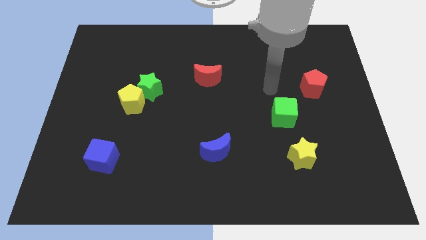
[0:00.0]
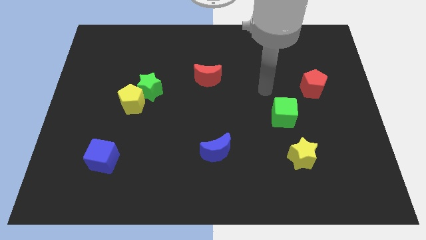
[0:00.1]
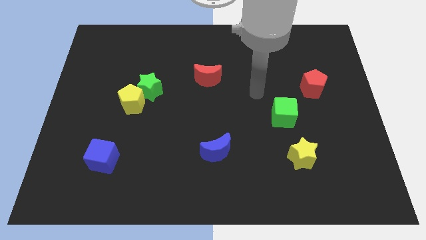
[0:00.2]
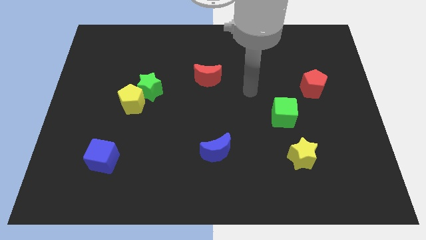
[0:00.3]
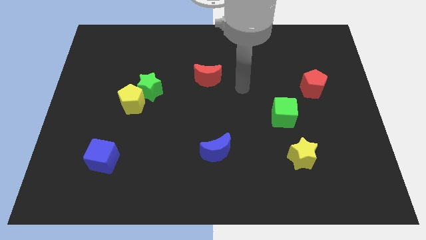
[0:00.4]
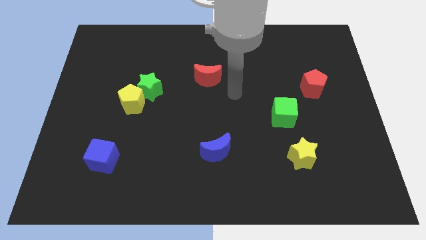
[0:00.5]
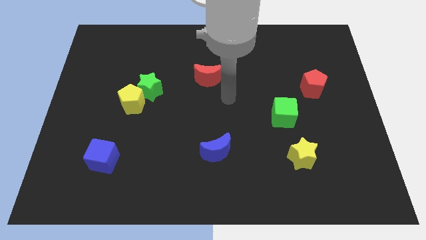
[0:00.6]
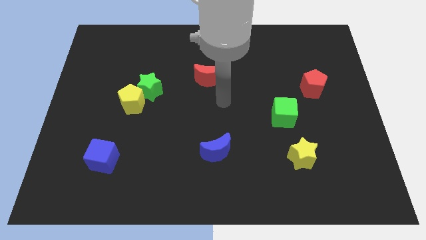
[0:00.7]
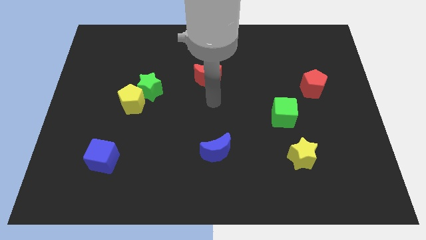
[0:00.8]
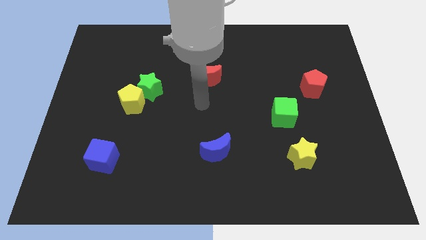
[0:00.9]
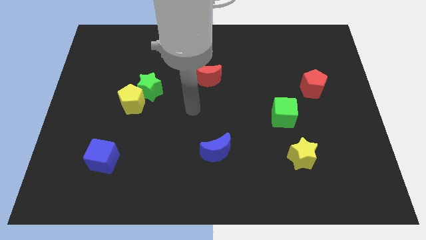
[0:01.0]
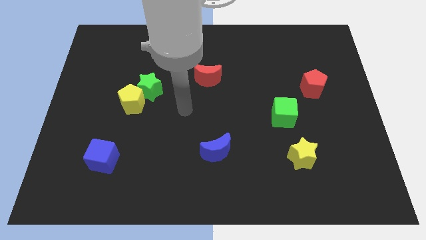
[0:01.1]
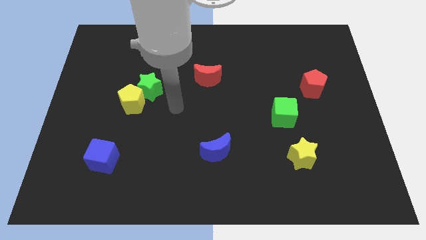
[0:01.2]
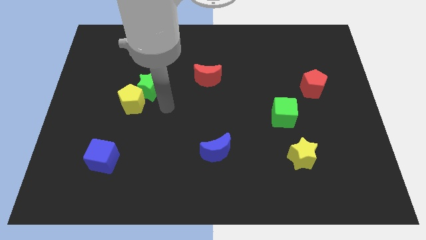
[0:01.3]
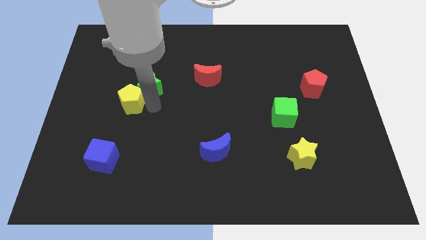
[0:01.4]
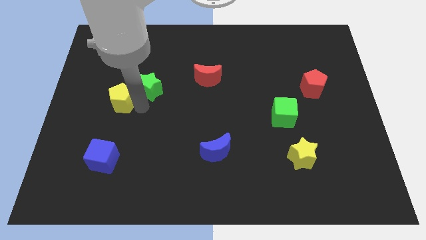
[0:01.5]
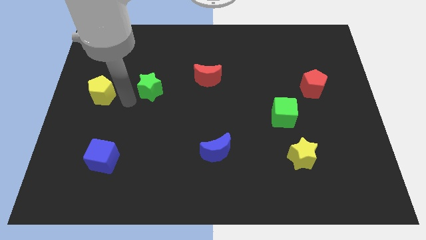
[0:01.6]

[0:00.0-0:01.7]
pull the green star apart from the yellow pentagon

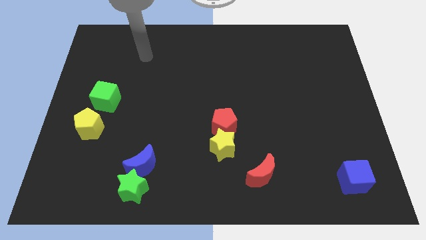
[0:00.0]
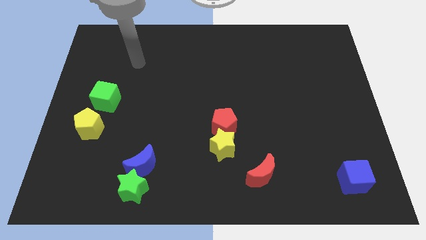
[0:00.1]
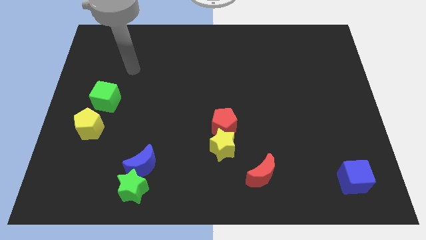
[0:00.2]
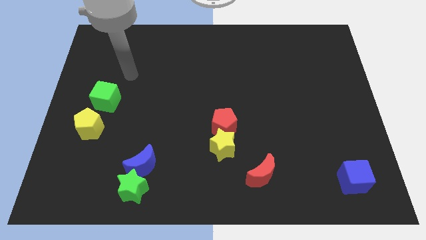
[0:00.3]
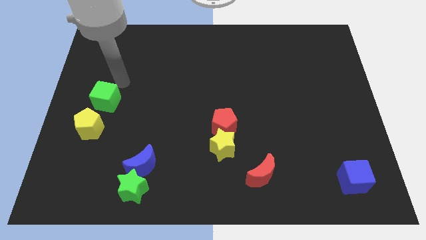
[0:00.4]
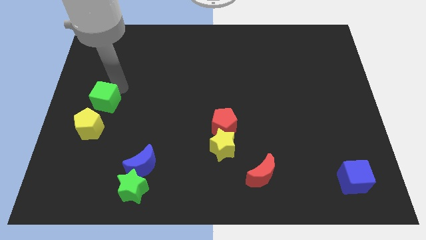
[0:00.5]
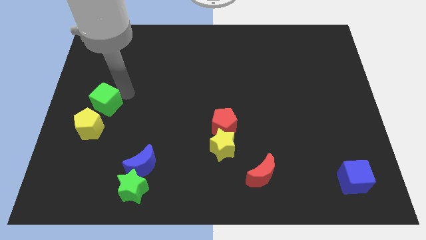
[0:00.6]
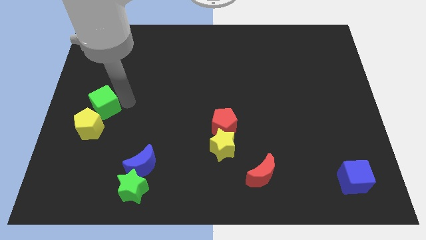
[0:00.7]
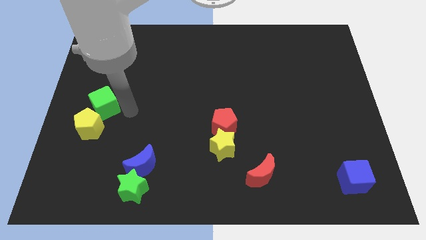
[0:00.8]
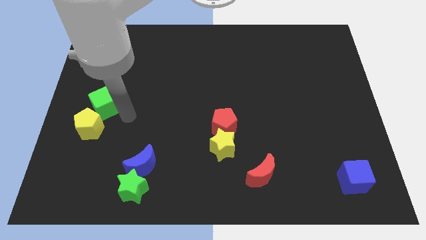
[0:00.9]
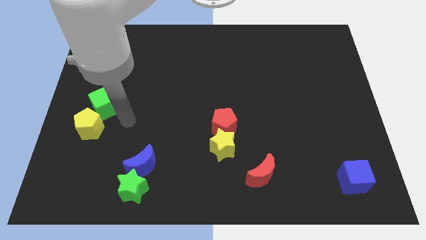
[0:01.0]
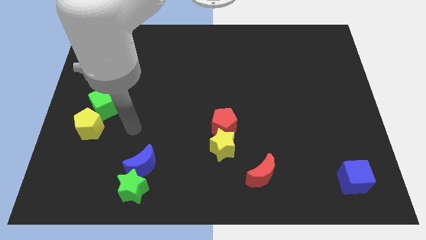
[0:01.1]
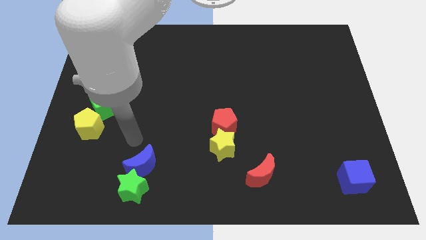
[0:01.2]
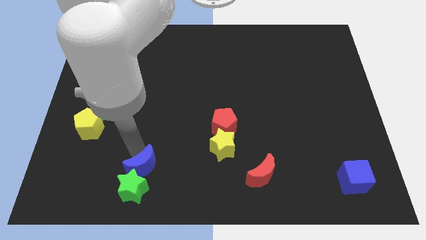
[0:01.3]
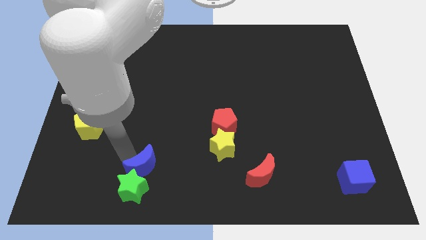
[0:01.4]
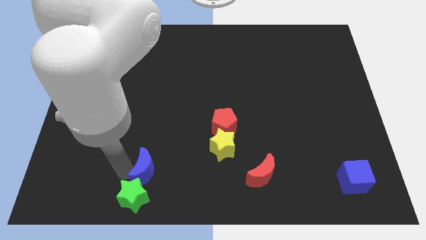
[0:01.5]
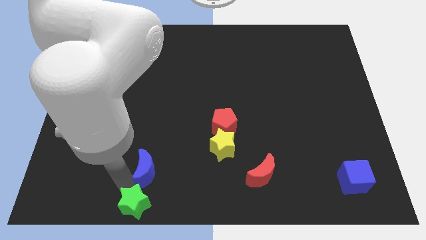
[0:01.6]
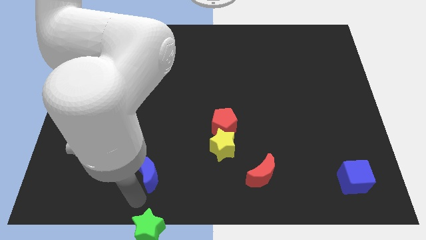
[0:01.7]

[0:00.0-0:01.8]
separate the blue moon from the green star

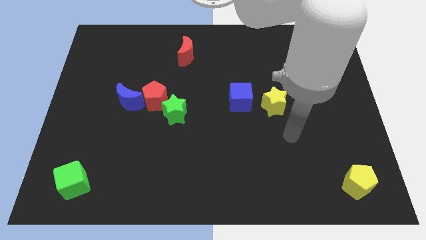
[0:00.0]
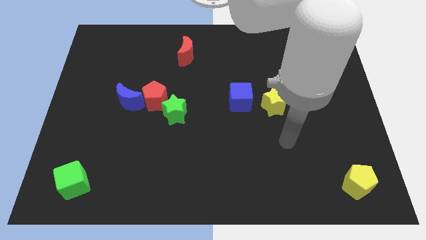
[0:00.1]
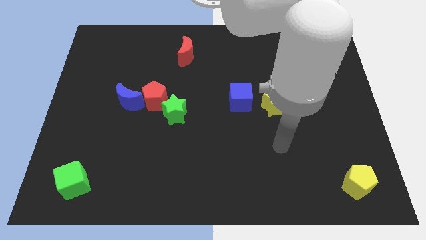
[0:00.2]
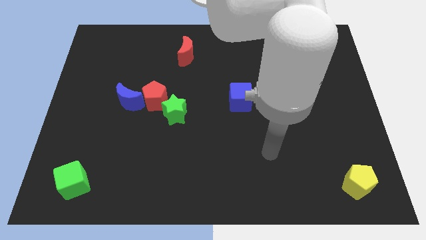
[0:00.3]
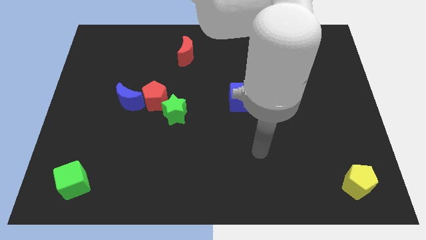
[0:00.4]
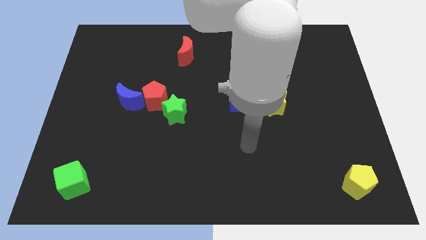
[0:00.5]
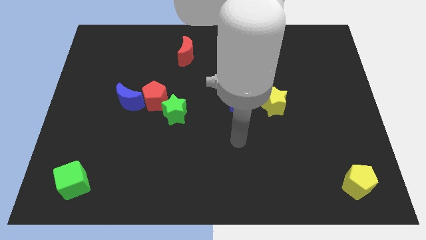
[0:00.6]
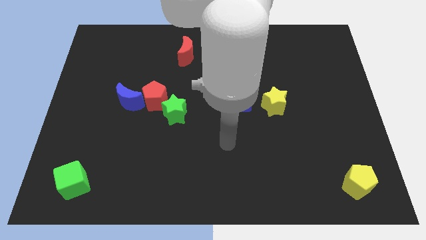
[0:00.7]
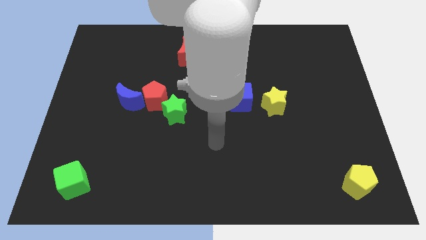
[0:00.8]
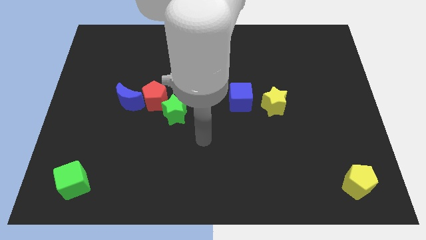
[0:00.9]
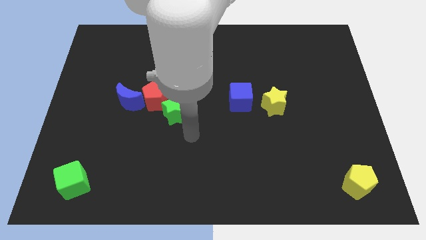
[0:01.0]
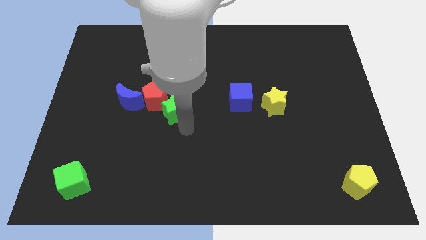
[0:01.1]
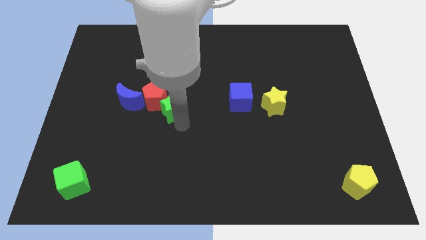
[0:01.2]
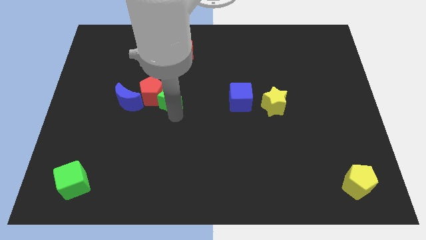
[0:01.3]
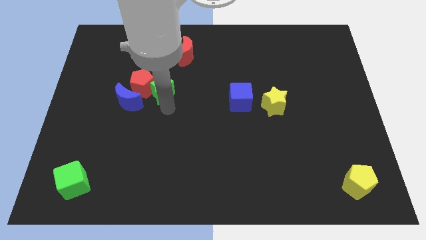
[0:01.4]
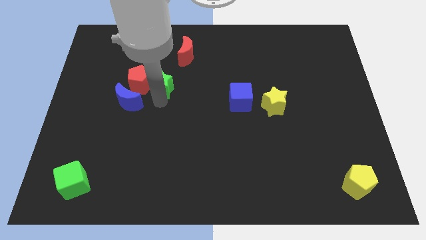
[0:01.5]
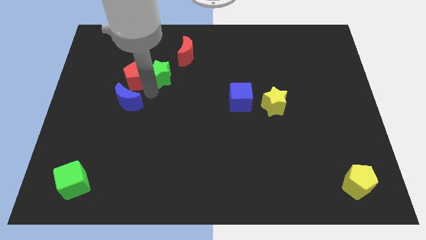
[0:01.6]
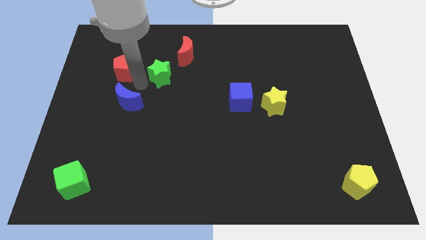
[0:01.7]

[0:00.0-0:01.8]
separate the blue moon from the red pentagon

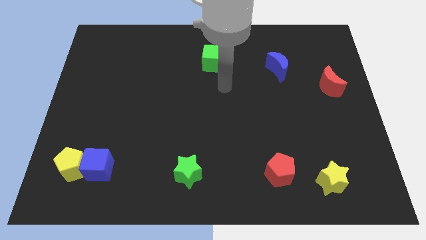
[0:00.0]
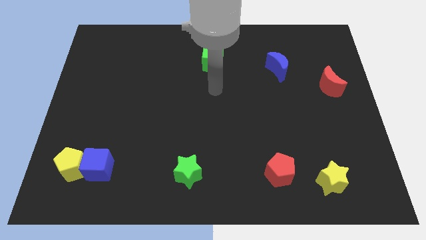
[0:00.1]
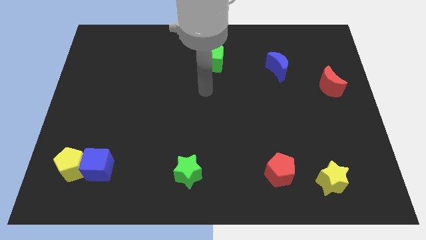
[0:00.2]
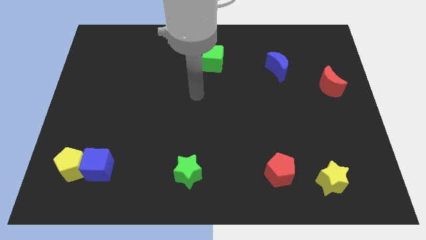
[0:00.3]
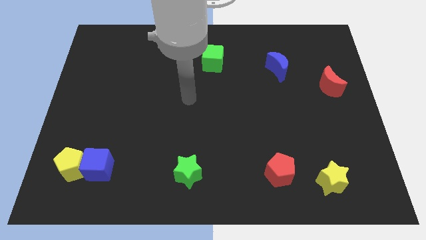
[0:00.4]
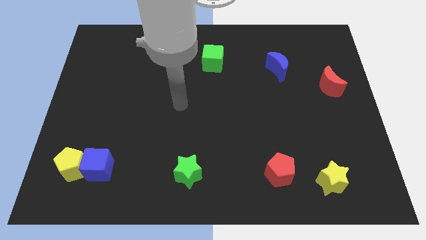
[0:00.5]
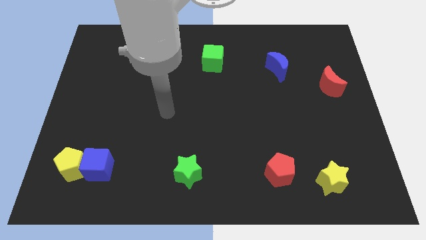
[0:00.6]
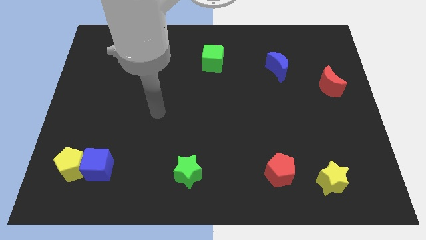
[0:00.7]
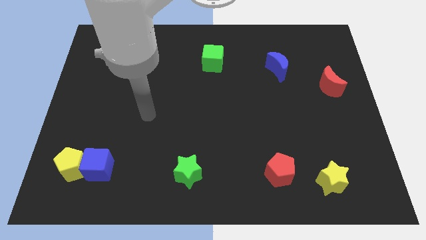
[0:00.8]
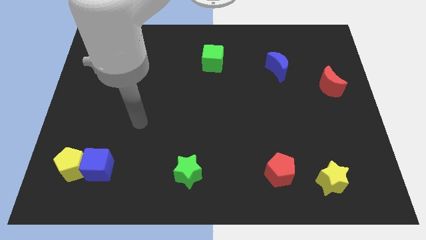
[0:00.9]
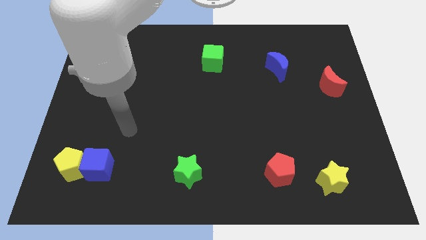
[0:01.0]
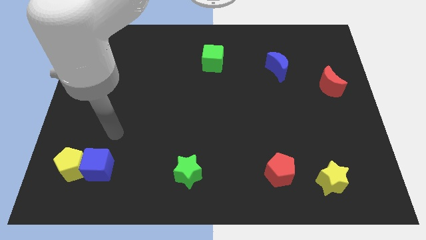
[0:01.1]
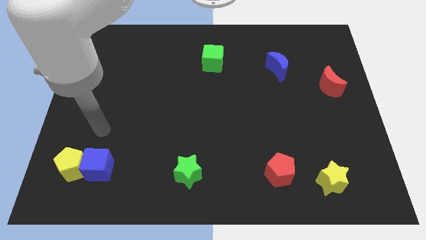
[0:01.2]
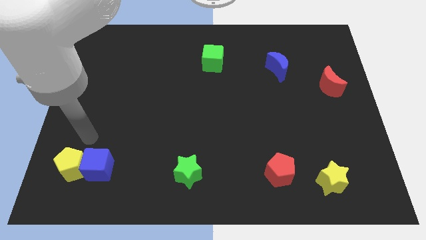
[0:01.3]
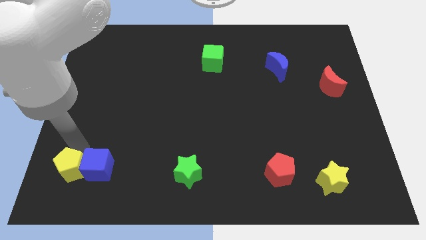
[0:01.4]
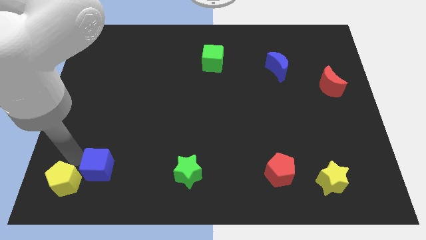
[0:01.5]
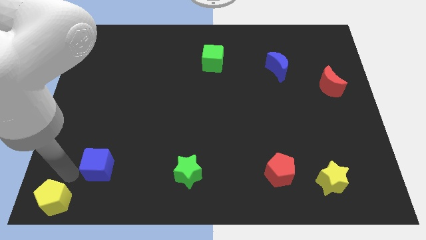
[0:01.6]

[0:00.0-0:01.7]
move the blue cube away from the yellow pentagon

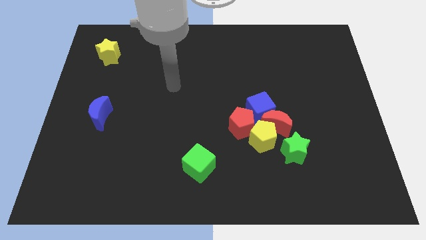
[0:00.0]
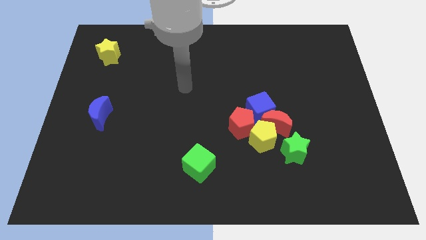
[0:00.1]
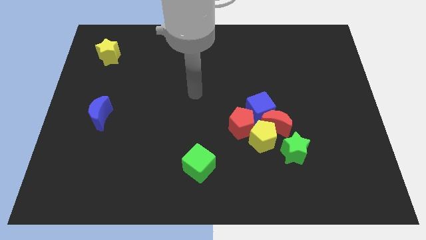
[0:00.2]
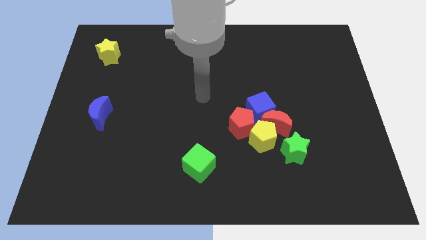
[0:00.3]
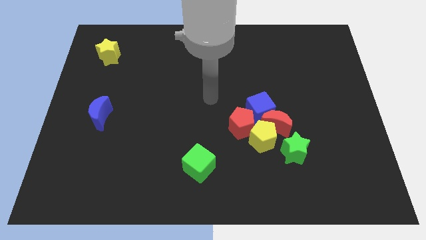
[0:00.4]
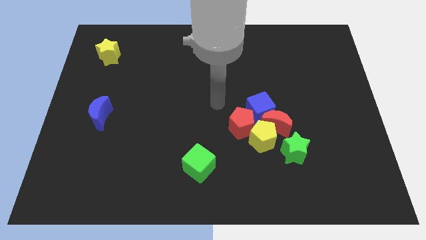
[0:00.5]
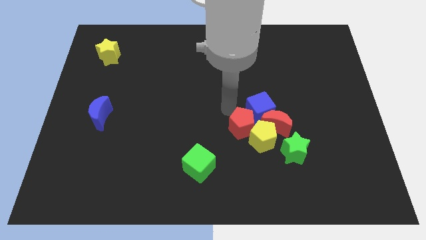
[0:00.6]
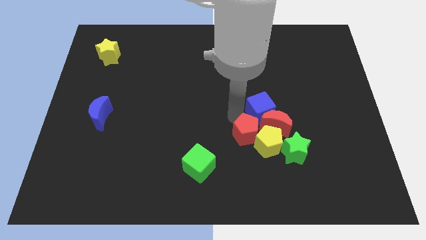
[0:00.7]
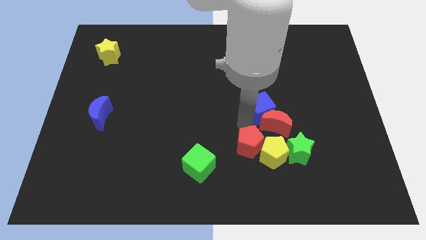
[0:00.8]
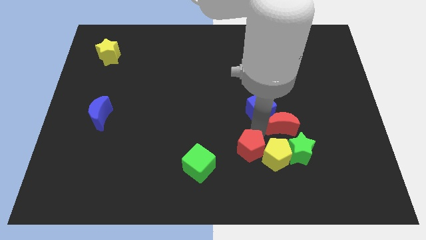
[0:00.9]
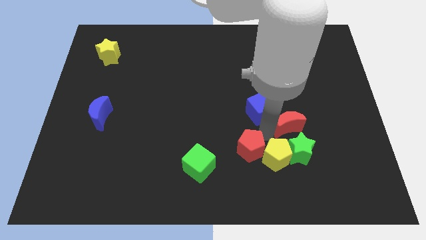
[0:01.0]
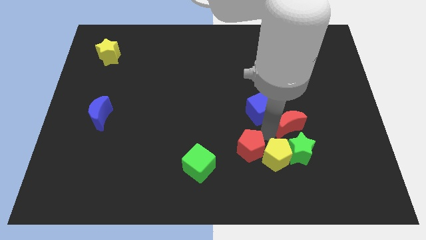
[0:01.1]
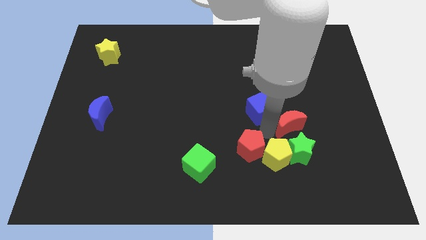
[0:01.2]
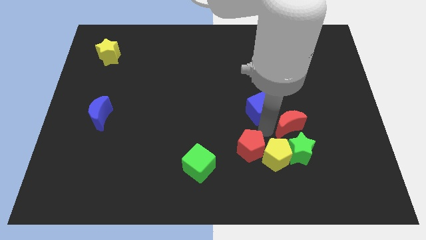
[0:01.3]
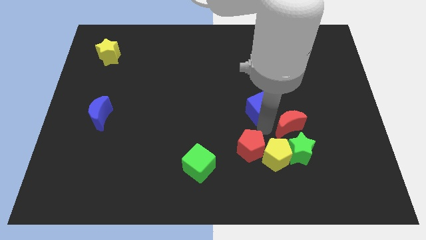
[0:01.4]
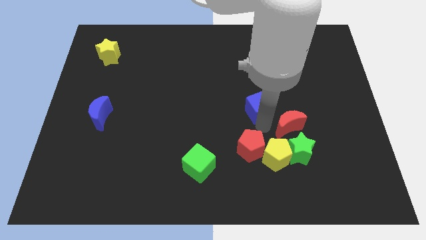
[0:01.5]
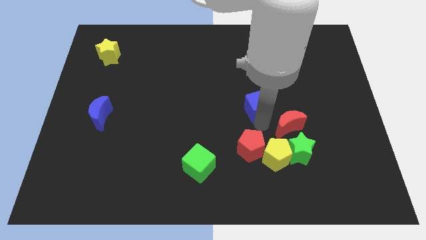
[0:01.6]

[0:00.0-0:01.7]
separate the blue cube from the group of blocks

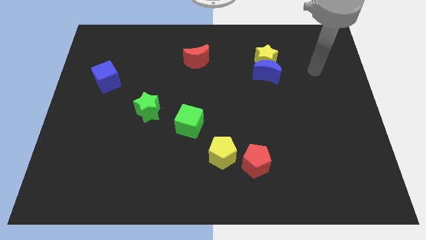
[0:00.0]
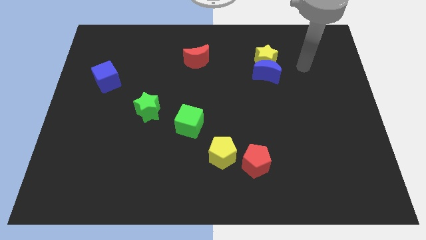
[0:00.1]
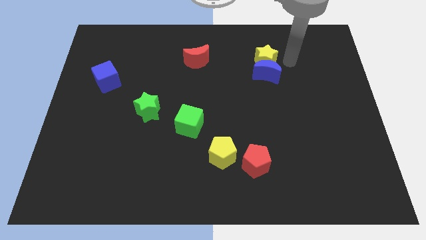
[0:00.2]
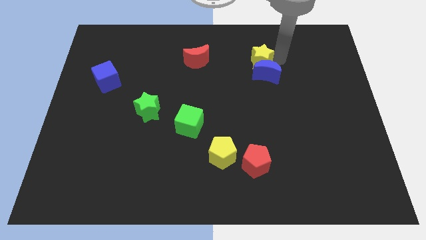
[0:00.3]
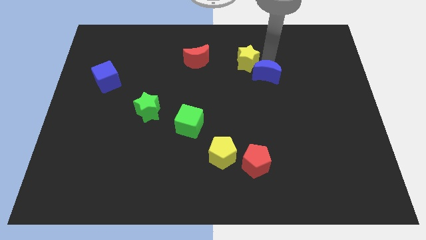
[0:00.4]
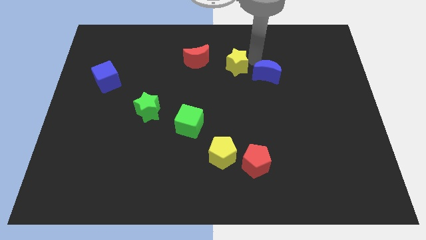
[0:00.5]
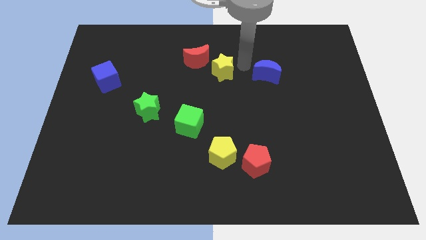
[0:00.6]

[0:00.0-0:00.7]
move the blue moon away from the yellow star

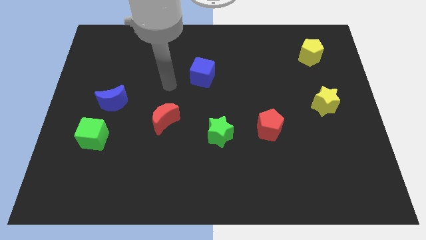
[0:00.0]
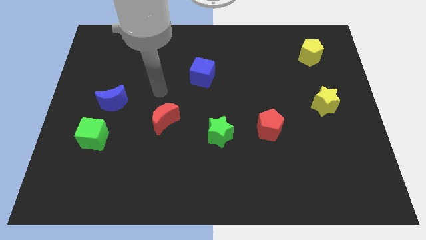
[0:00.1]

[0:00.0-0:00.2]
separate the blue moon from the green cube
